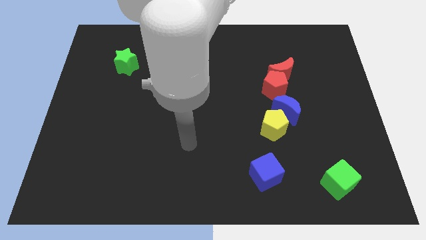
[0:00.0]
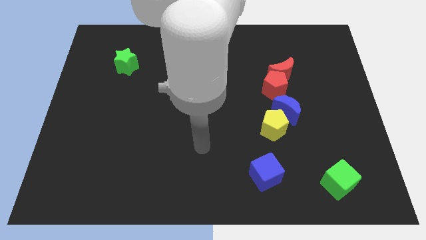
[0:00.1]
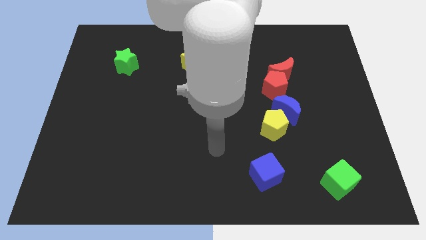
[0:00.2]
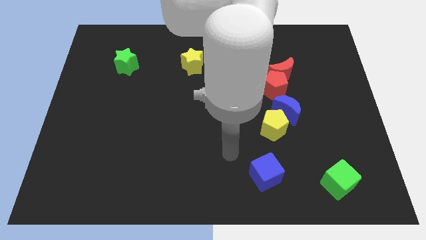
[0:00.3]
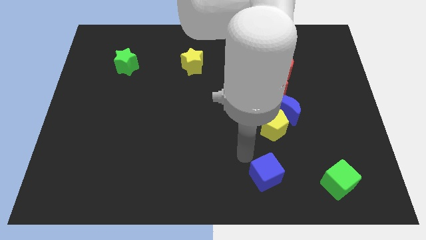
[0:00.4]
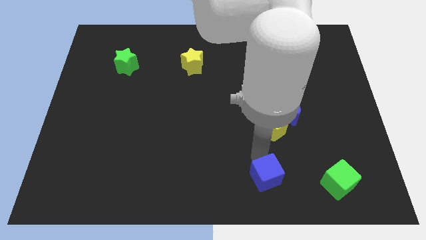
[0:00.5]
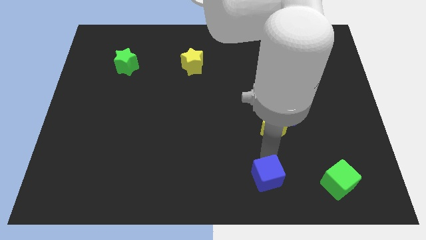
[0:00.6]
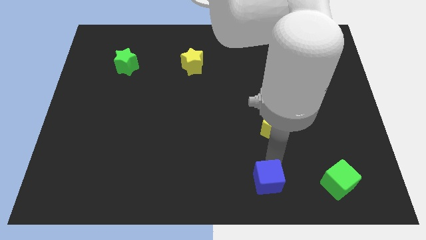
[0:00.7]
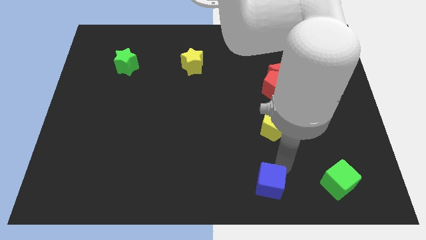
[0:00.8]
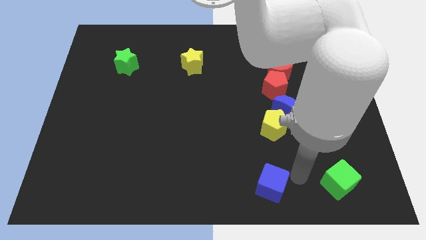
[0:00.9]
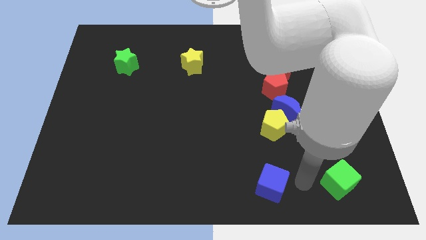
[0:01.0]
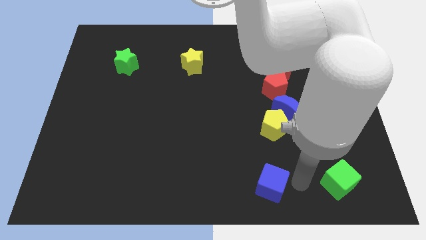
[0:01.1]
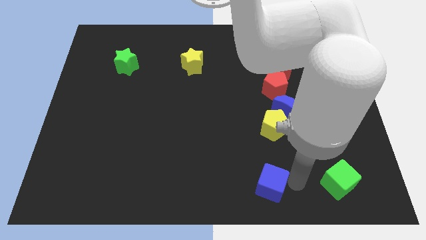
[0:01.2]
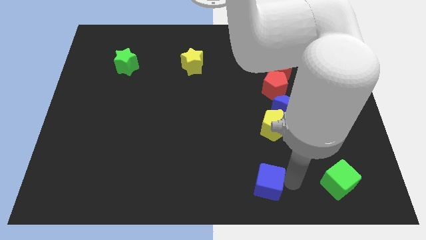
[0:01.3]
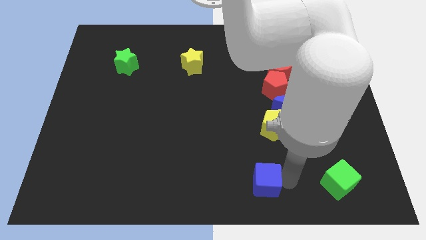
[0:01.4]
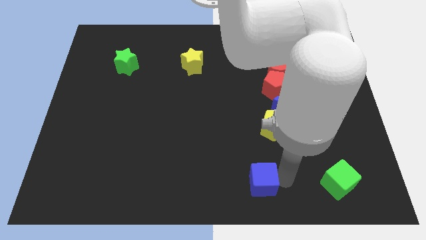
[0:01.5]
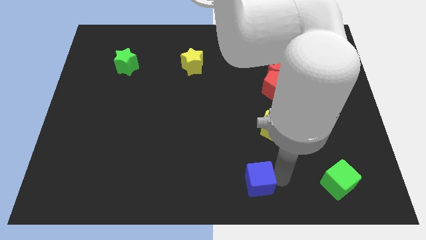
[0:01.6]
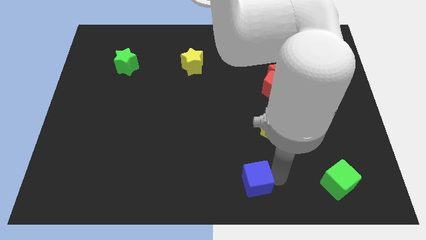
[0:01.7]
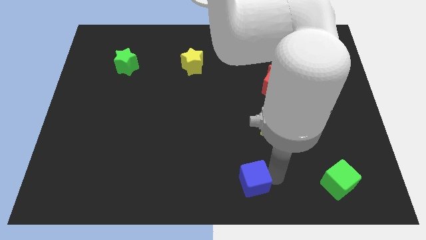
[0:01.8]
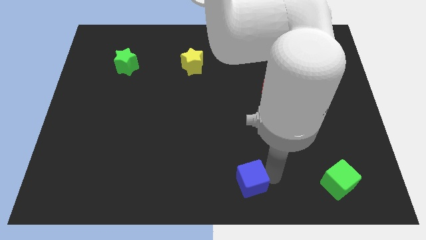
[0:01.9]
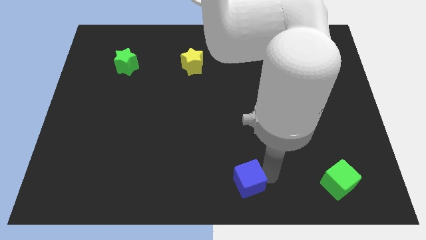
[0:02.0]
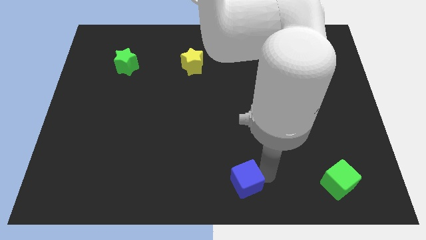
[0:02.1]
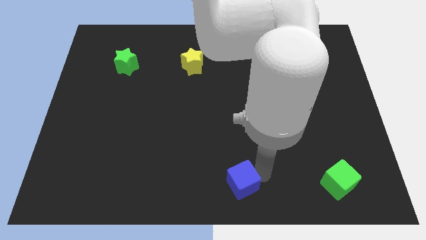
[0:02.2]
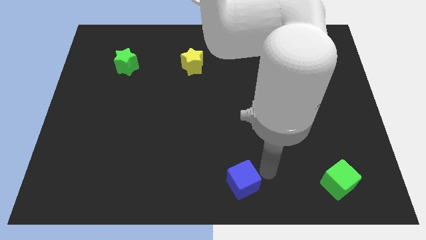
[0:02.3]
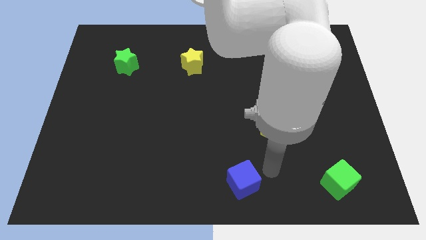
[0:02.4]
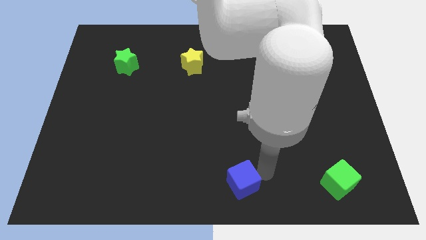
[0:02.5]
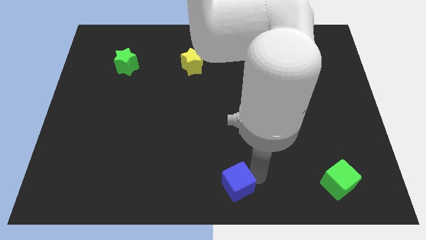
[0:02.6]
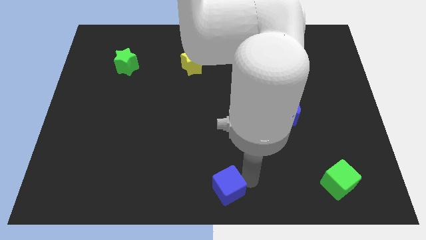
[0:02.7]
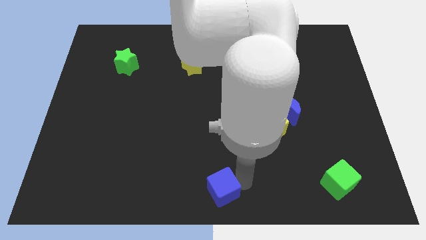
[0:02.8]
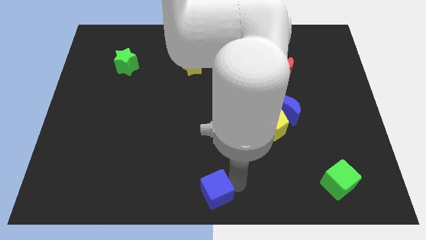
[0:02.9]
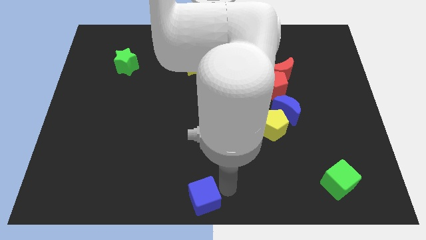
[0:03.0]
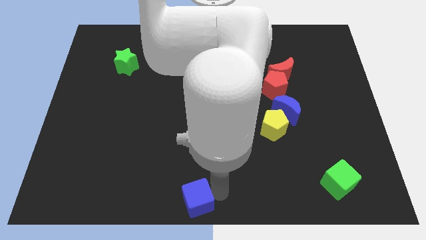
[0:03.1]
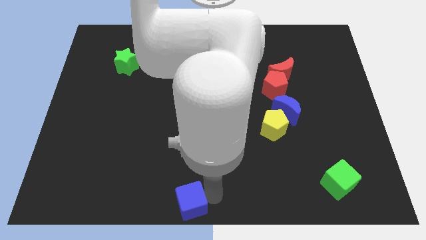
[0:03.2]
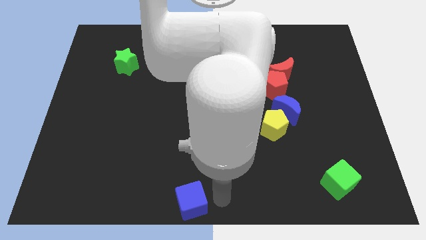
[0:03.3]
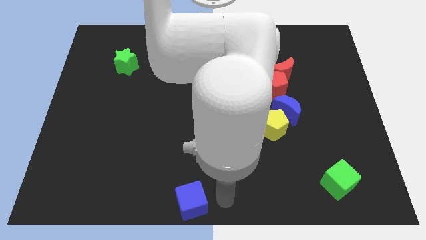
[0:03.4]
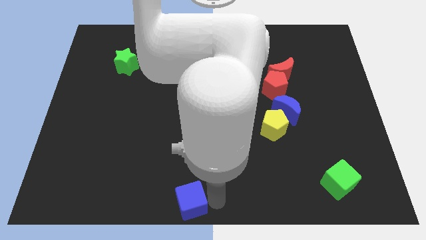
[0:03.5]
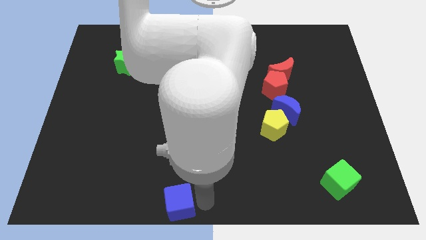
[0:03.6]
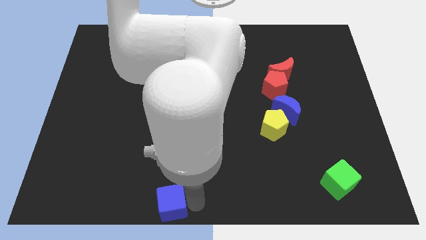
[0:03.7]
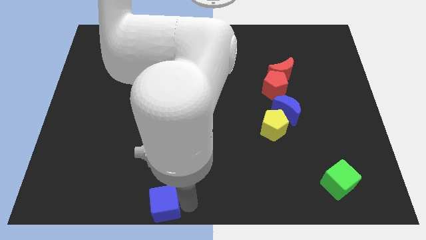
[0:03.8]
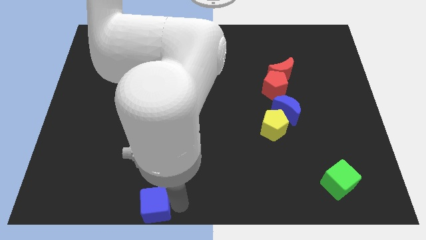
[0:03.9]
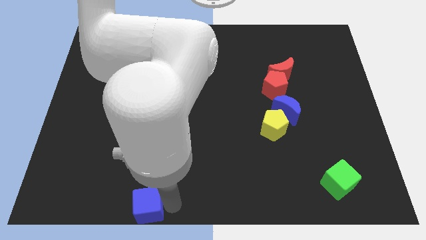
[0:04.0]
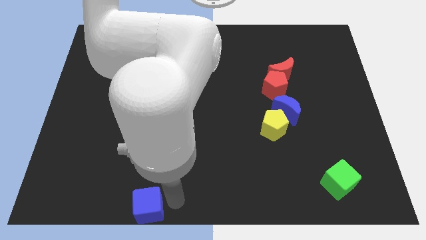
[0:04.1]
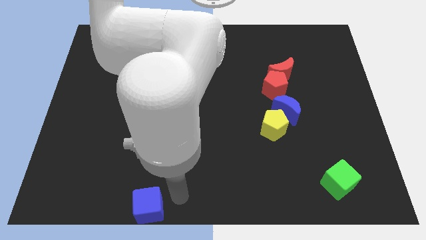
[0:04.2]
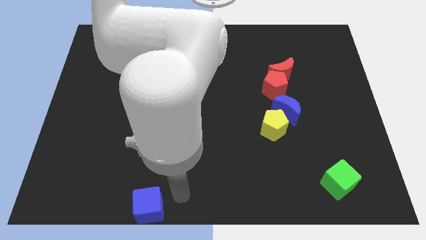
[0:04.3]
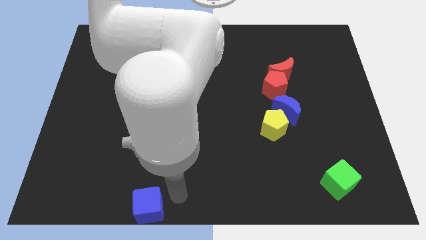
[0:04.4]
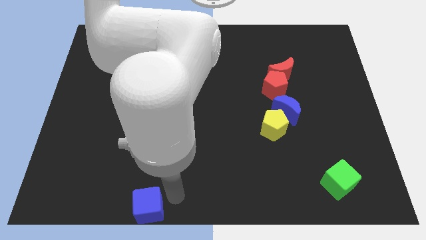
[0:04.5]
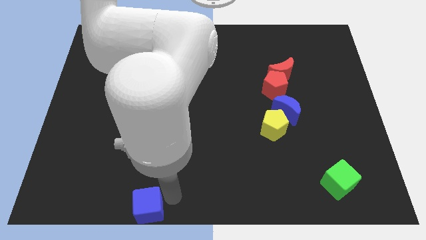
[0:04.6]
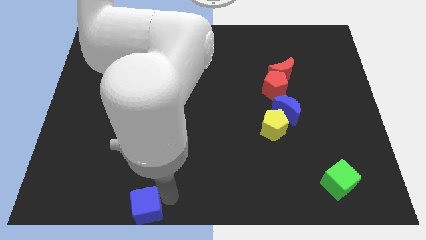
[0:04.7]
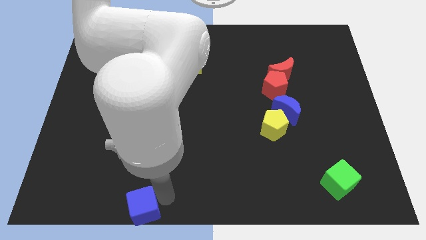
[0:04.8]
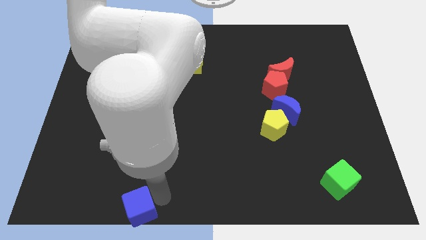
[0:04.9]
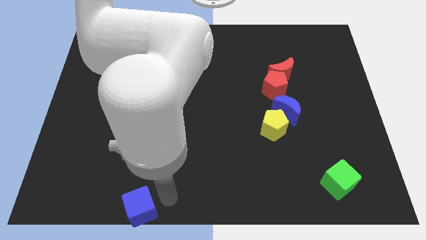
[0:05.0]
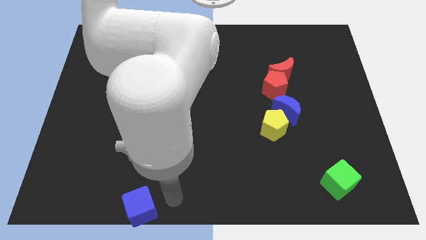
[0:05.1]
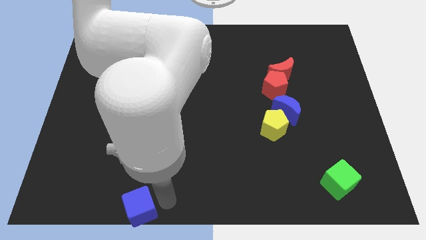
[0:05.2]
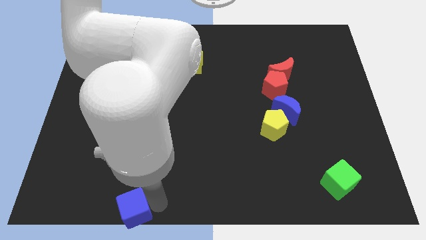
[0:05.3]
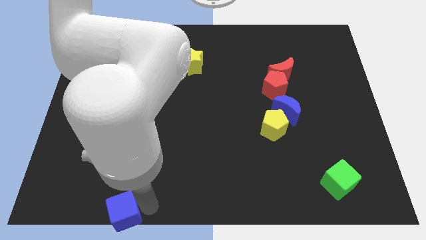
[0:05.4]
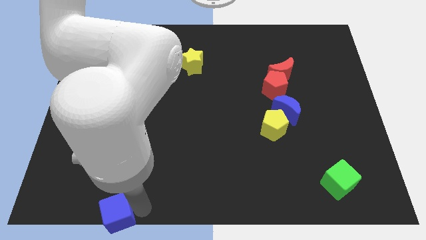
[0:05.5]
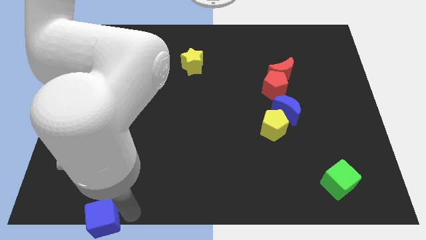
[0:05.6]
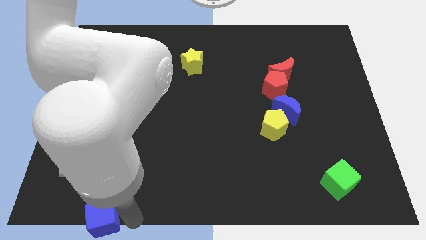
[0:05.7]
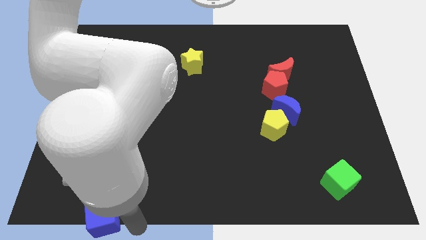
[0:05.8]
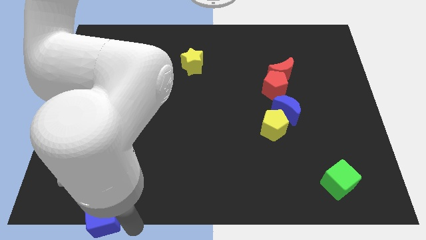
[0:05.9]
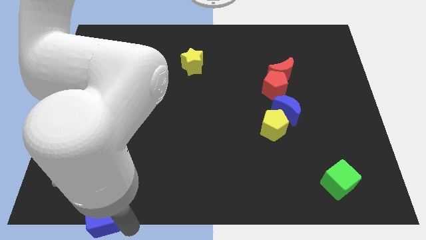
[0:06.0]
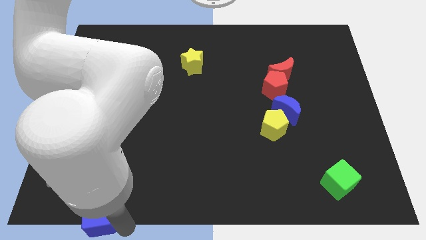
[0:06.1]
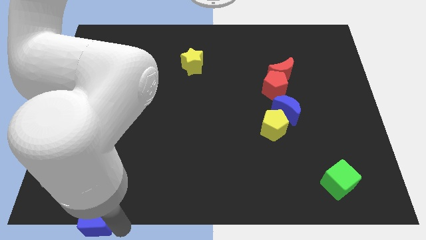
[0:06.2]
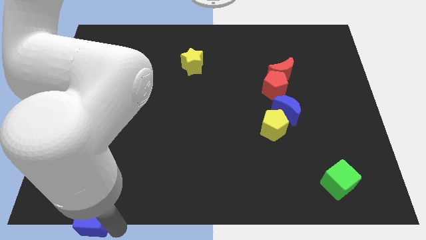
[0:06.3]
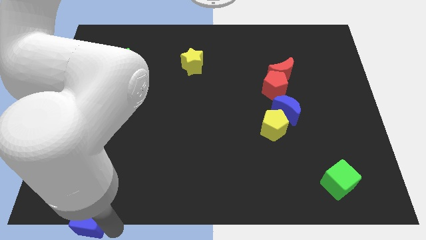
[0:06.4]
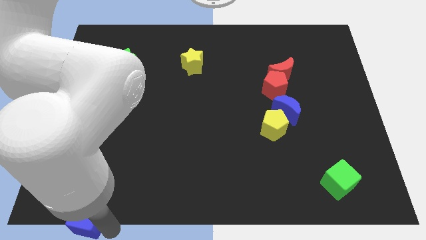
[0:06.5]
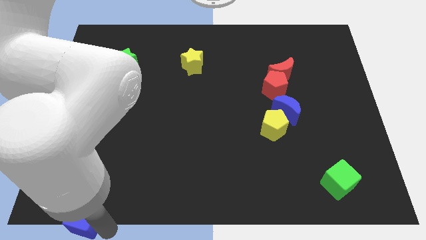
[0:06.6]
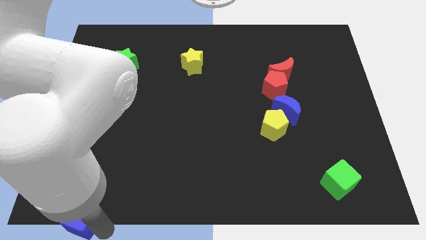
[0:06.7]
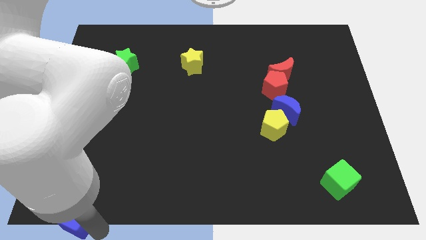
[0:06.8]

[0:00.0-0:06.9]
push the blue cube to the bottom left corner

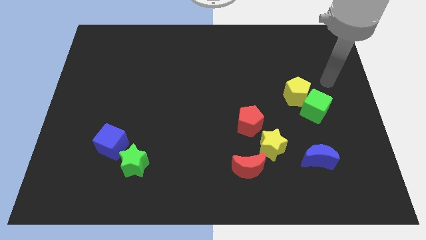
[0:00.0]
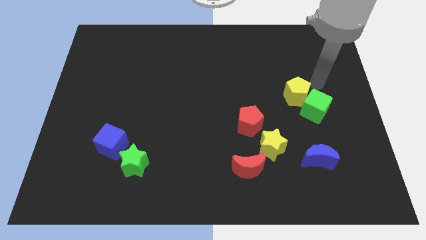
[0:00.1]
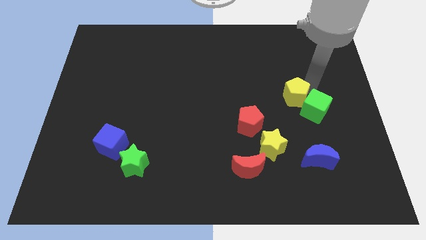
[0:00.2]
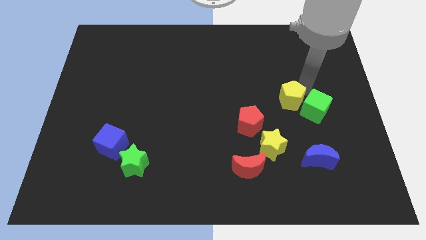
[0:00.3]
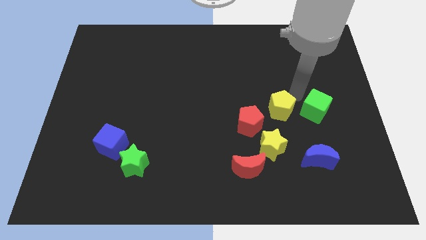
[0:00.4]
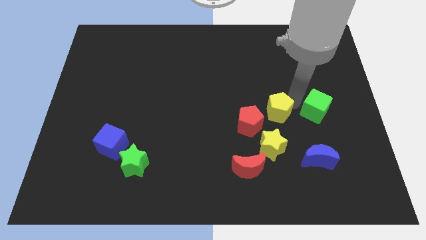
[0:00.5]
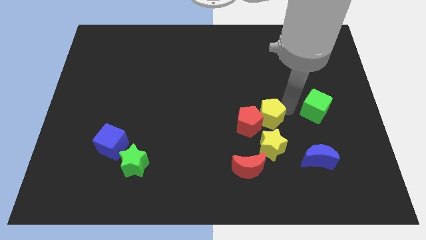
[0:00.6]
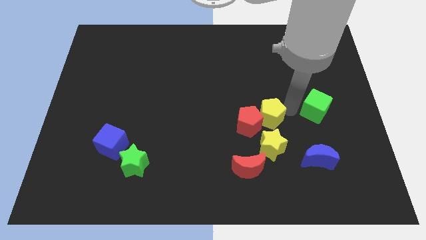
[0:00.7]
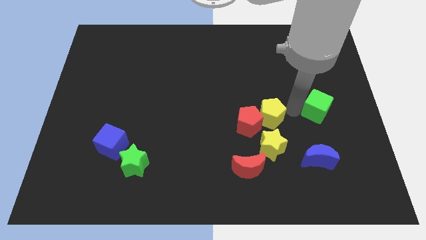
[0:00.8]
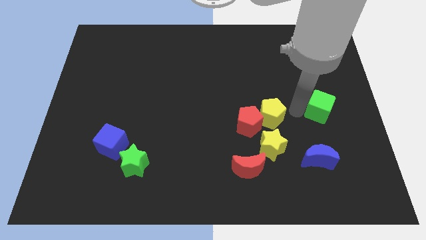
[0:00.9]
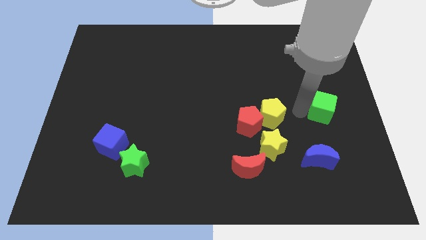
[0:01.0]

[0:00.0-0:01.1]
push the green cube to the center right
